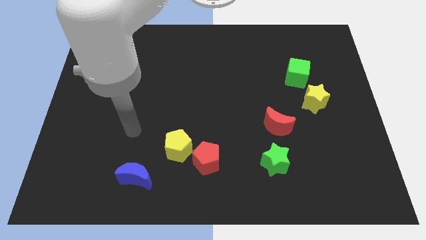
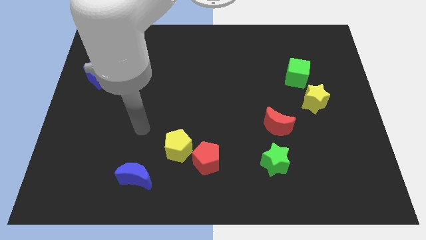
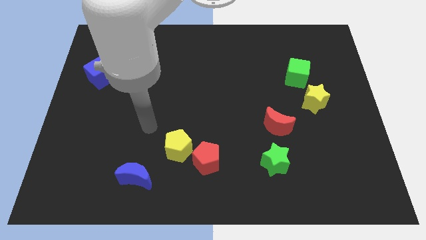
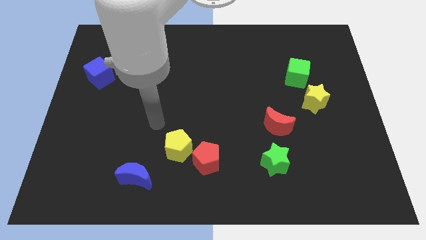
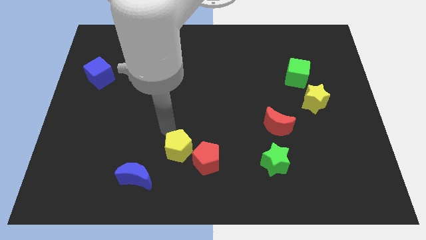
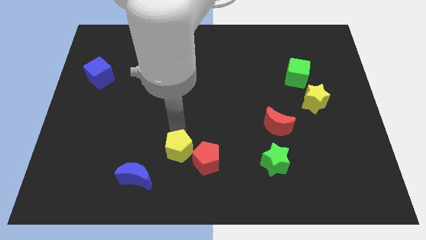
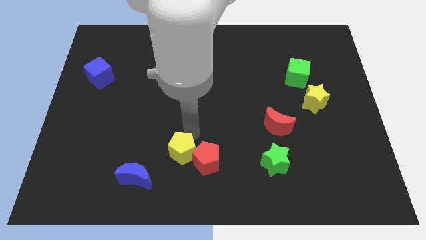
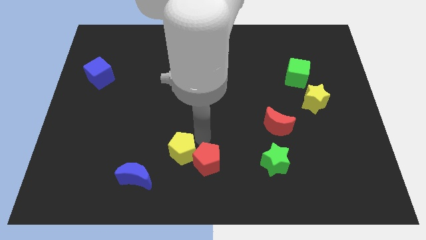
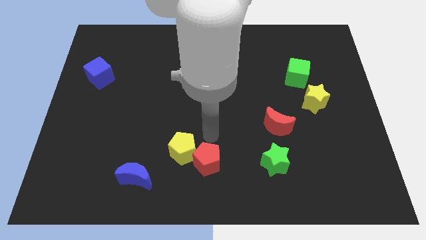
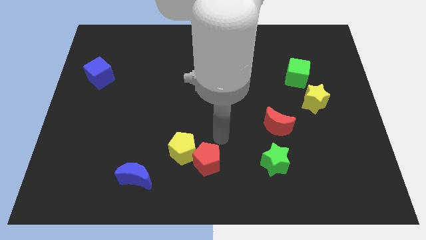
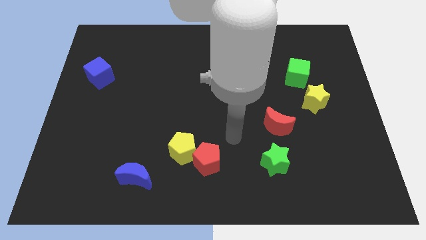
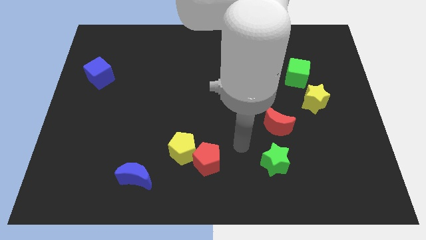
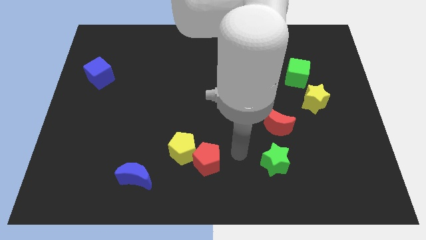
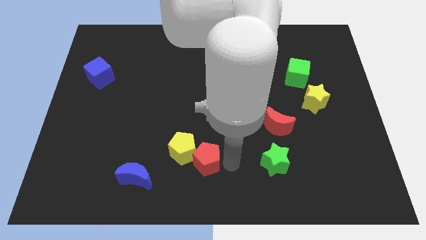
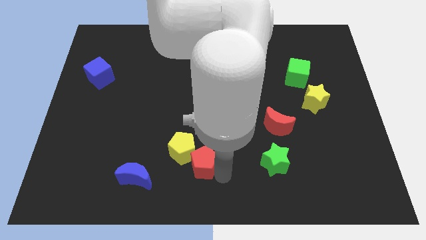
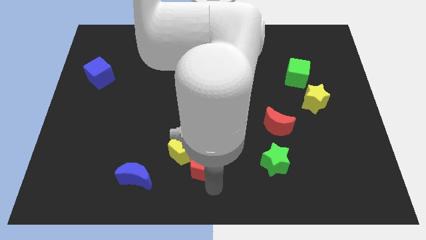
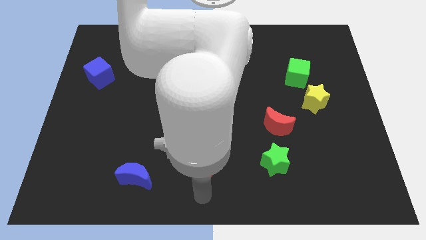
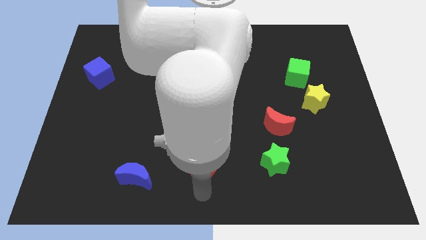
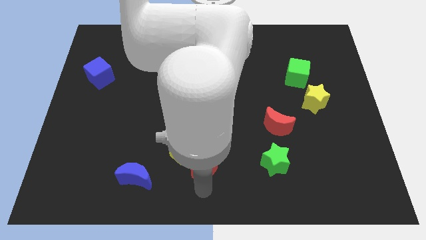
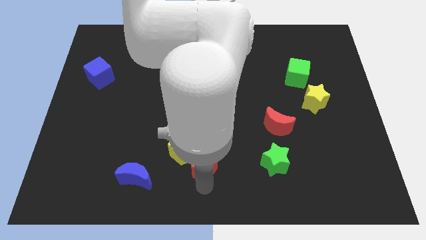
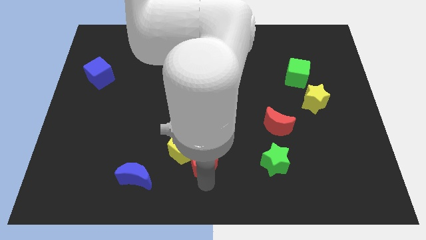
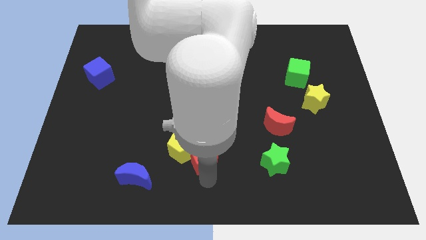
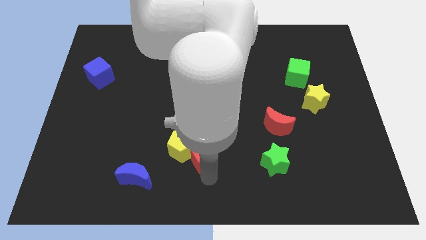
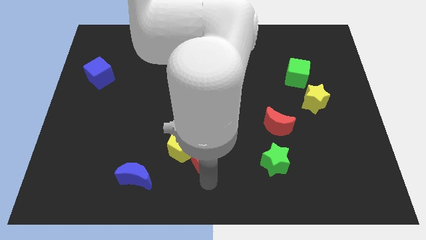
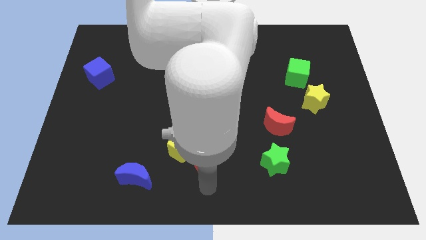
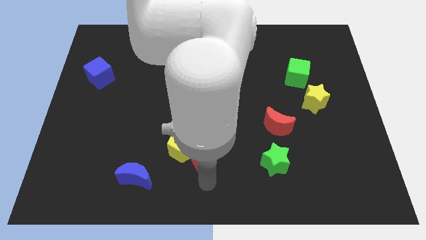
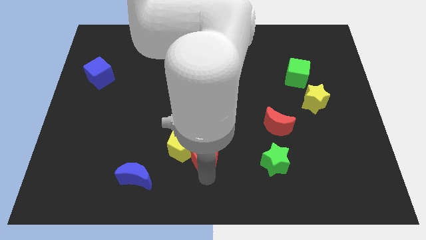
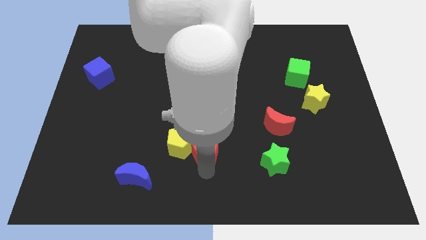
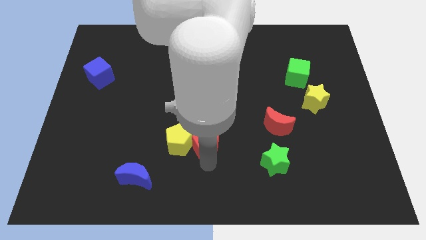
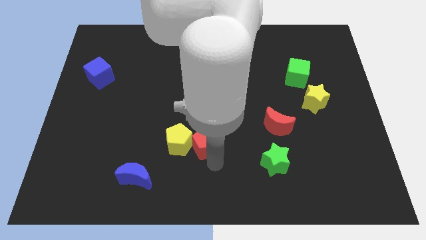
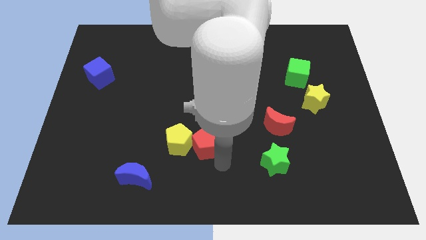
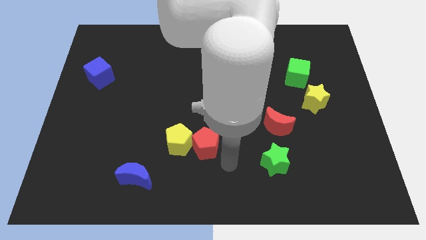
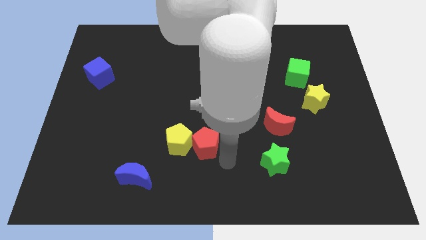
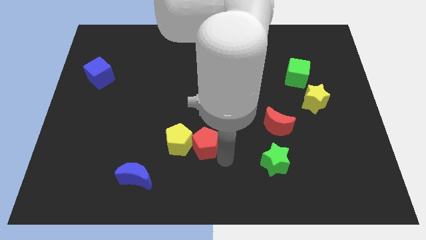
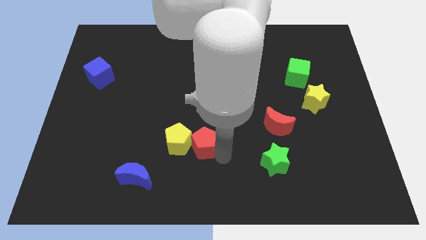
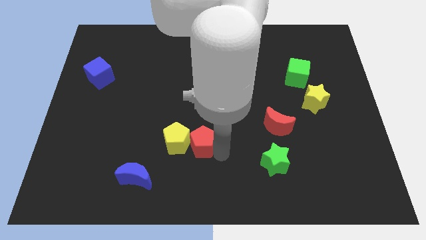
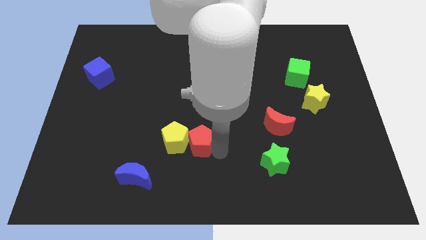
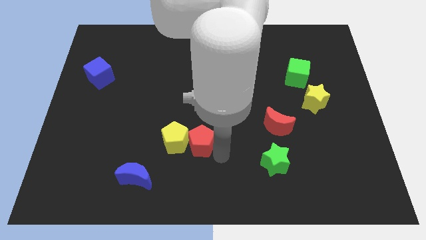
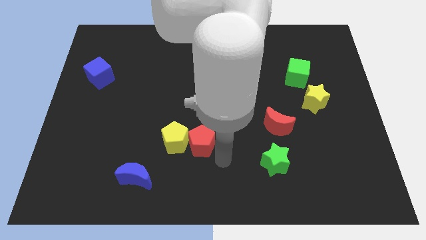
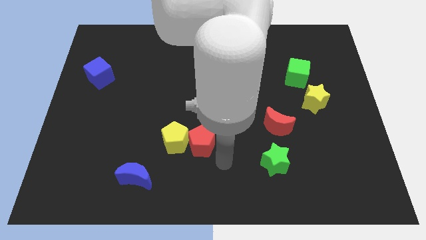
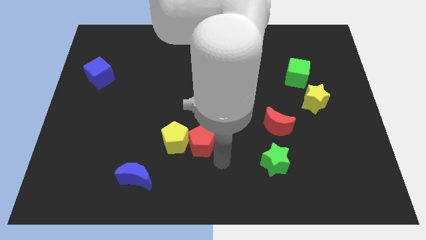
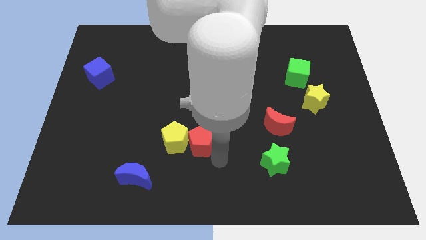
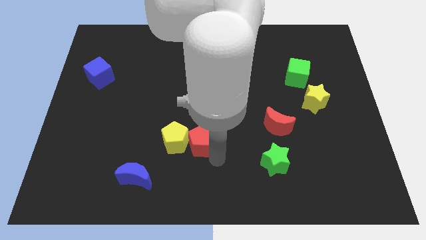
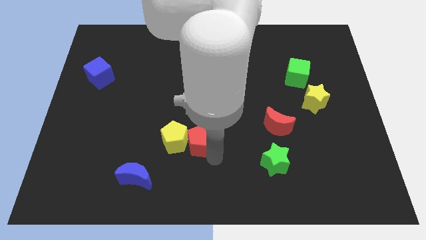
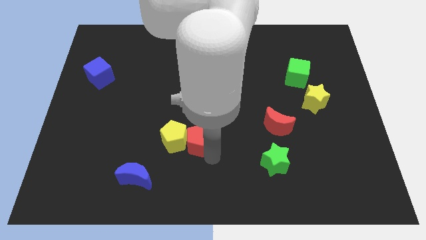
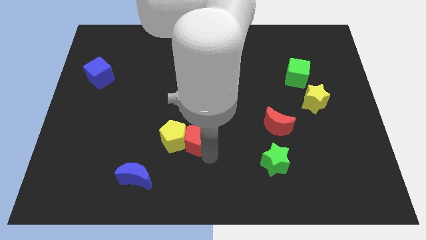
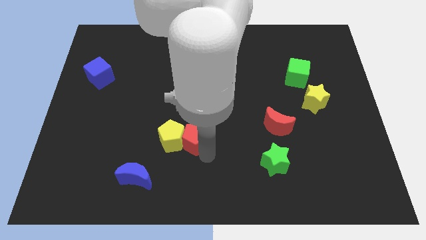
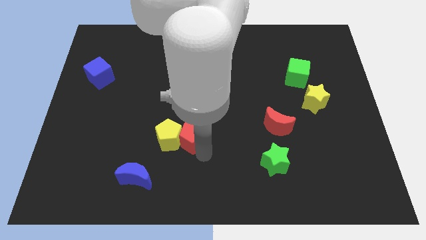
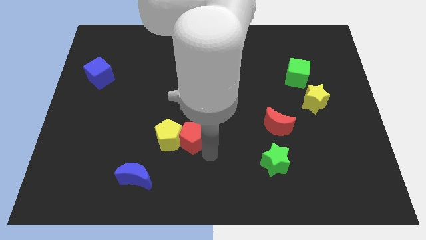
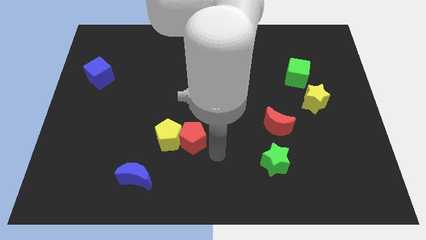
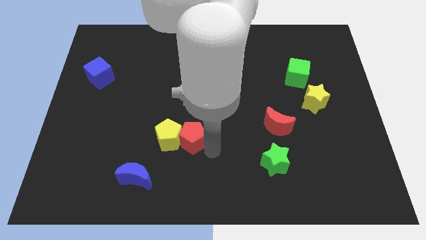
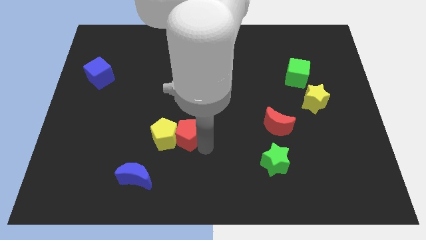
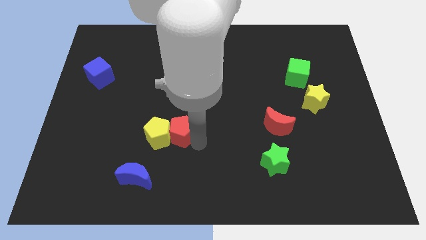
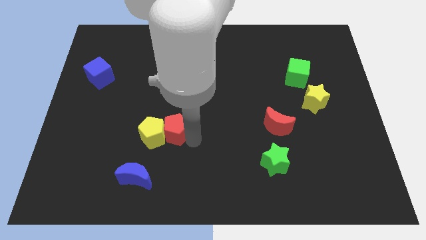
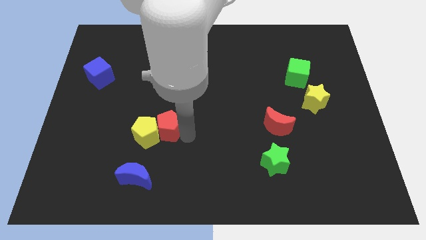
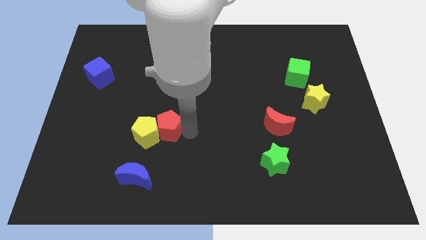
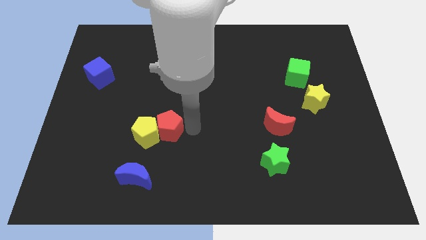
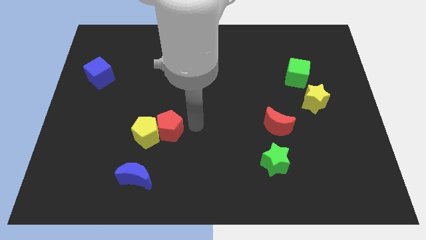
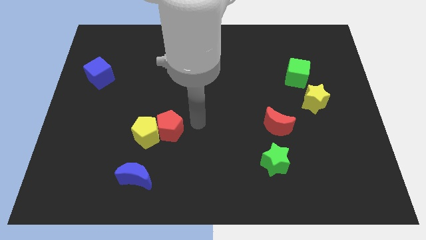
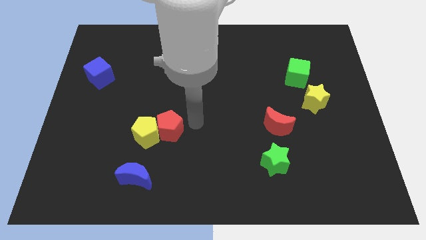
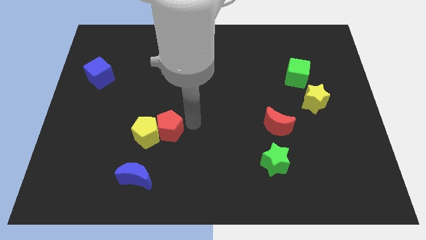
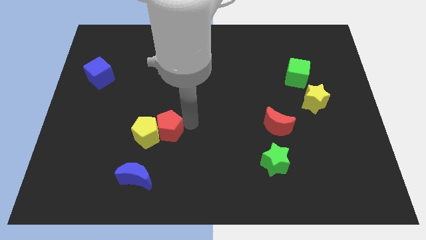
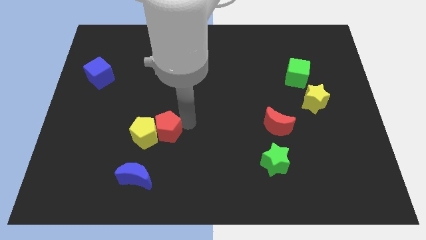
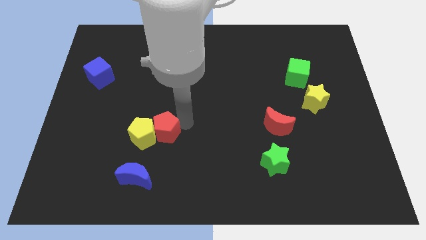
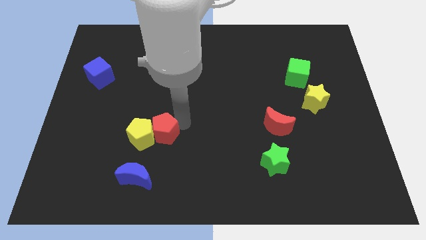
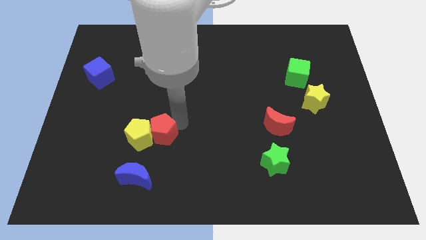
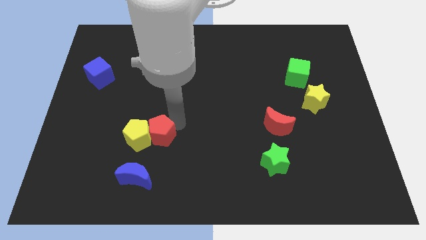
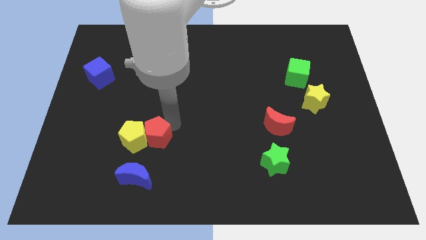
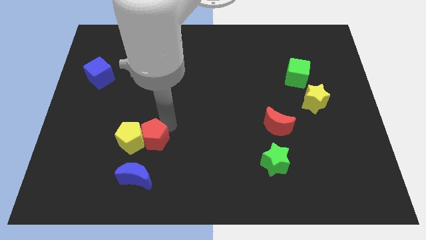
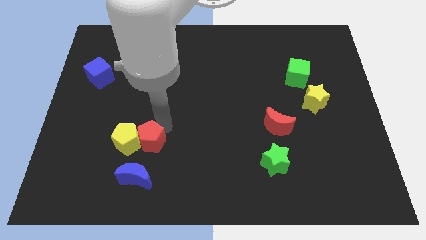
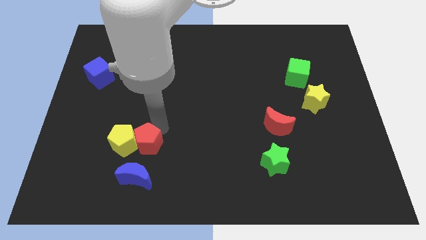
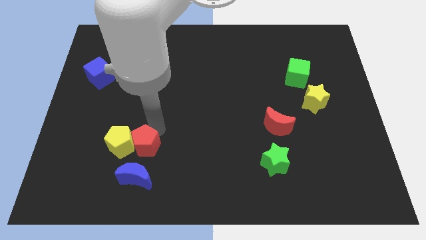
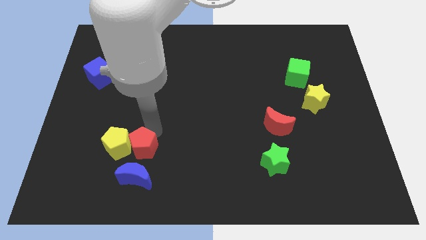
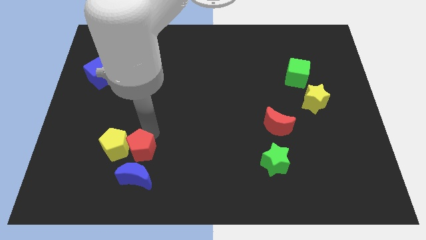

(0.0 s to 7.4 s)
push the red pentagon to the top left of the blue moon
